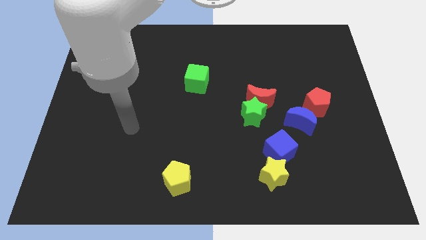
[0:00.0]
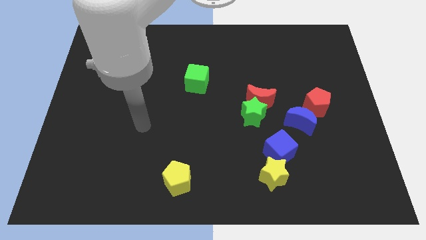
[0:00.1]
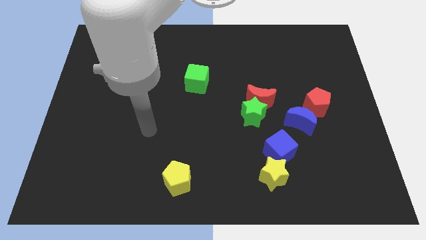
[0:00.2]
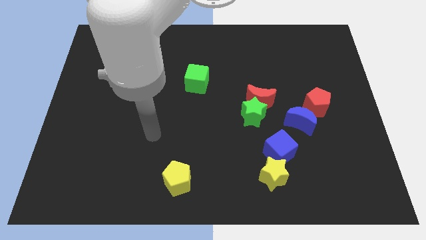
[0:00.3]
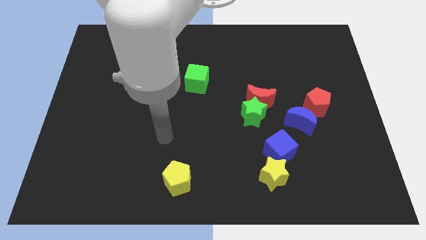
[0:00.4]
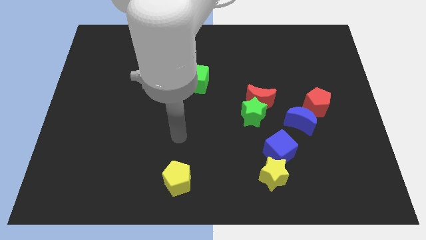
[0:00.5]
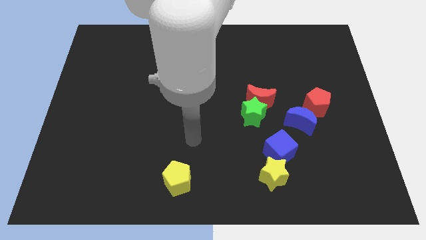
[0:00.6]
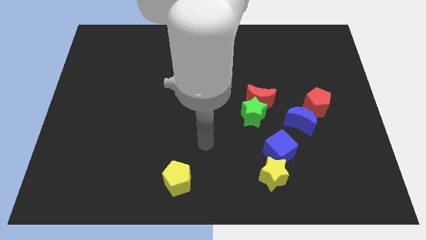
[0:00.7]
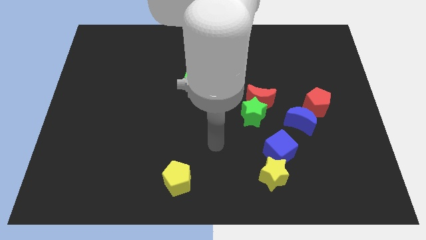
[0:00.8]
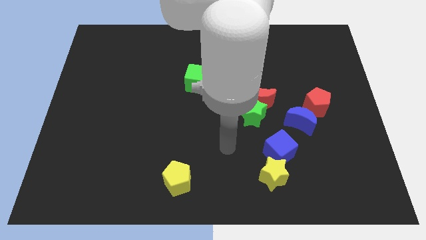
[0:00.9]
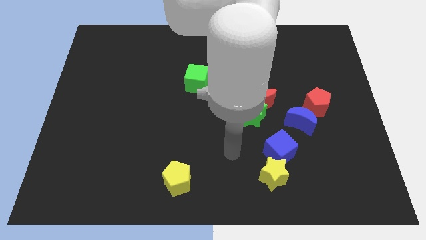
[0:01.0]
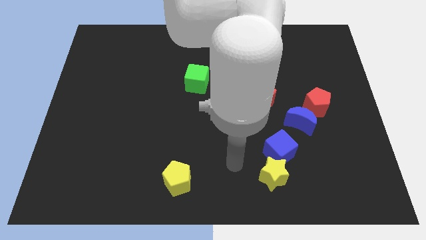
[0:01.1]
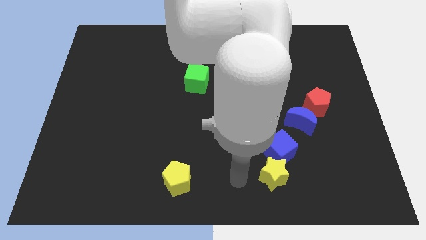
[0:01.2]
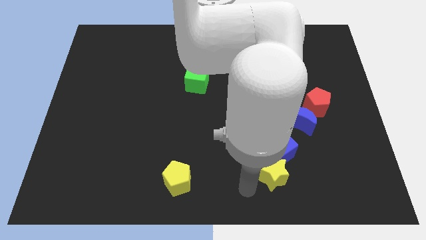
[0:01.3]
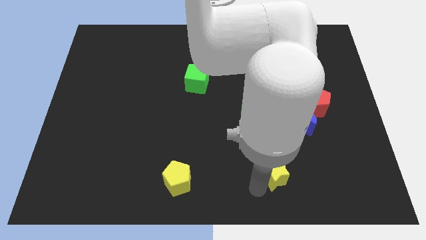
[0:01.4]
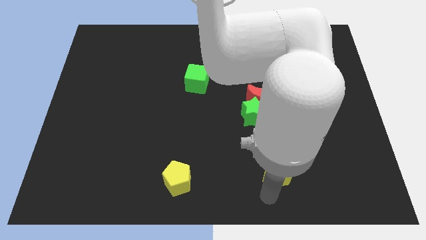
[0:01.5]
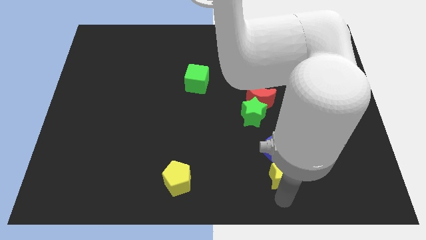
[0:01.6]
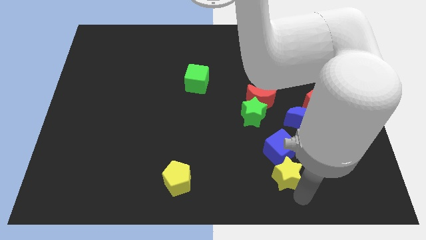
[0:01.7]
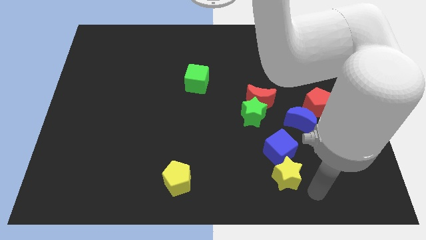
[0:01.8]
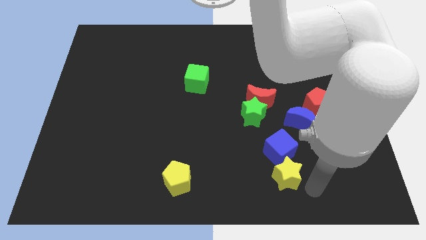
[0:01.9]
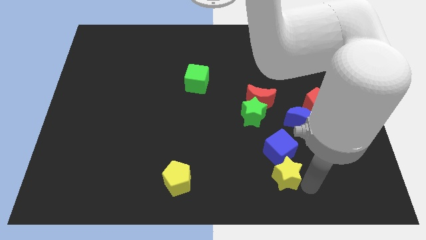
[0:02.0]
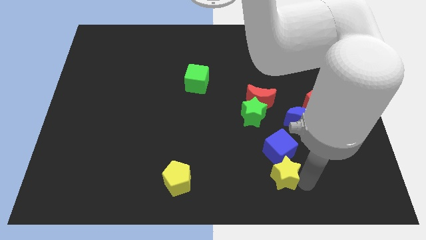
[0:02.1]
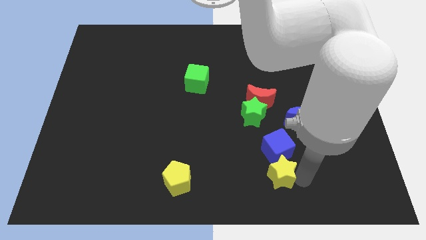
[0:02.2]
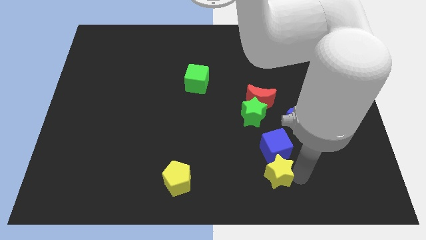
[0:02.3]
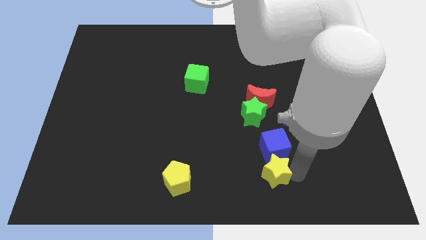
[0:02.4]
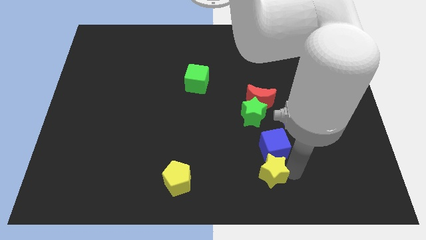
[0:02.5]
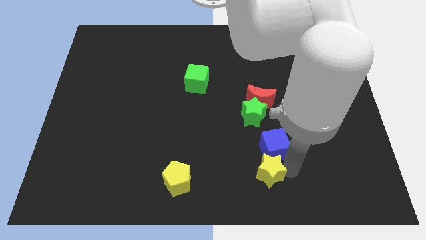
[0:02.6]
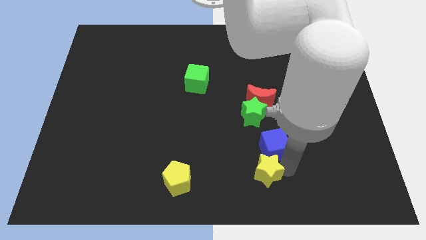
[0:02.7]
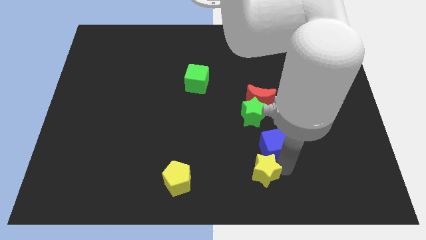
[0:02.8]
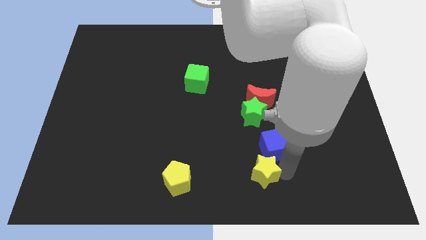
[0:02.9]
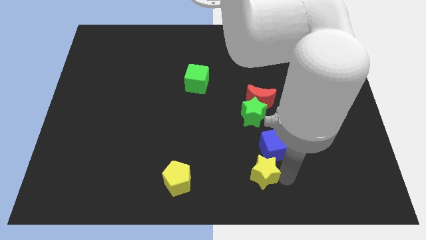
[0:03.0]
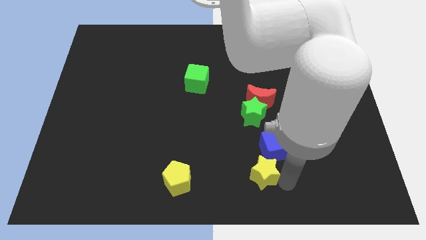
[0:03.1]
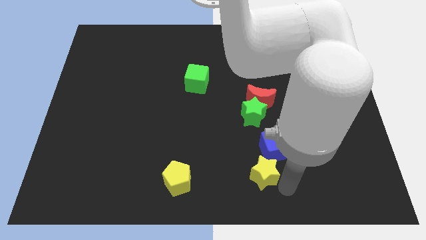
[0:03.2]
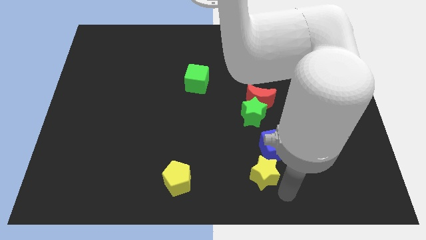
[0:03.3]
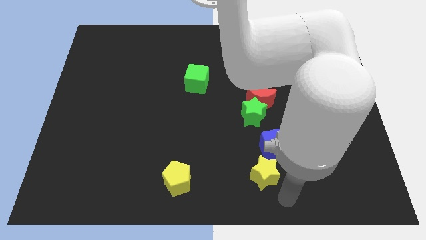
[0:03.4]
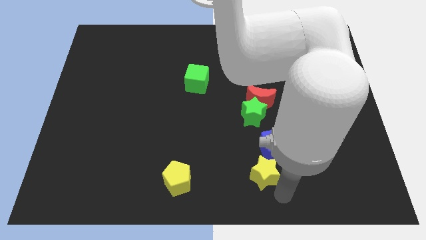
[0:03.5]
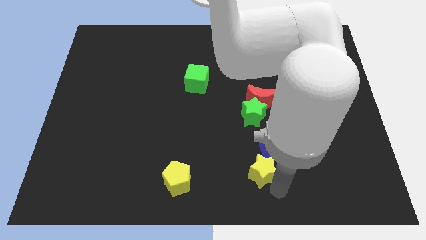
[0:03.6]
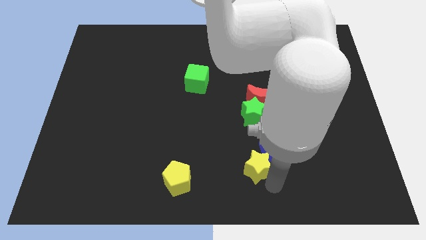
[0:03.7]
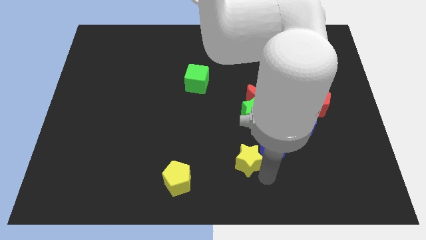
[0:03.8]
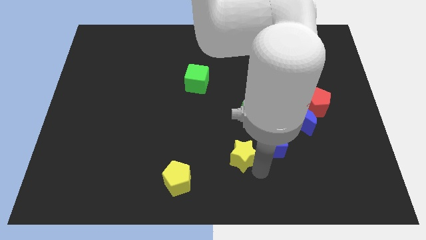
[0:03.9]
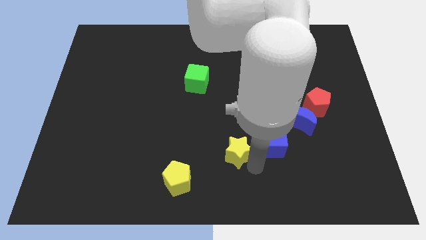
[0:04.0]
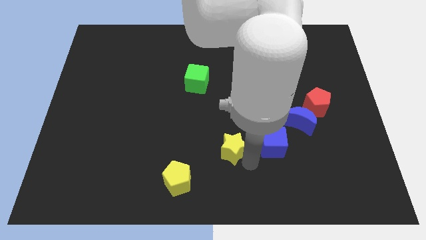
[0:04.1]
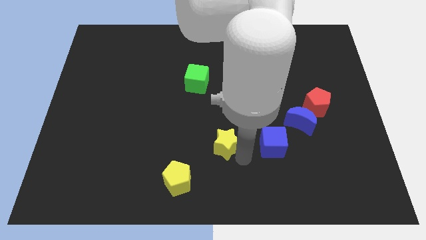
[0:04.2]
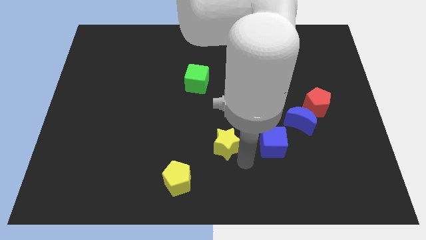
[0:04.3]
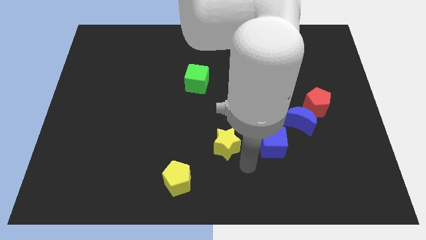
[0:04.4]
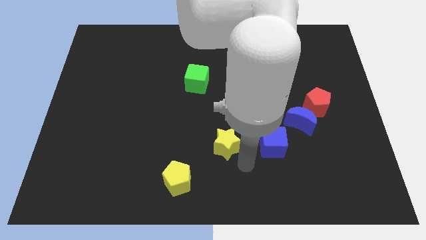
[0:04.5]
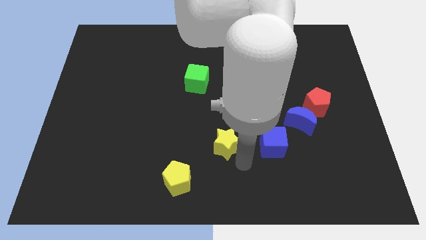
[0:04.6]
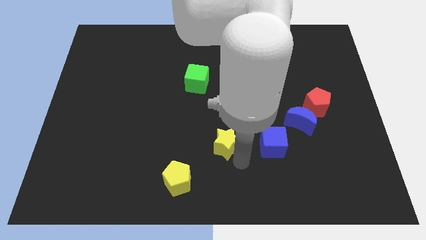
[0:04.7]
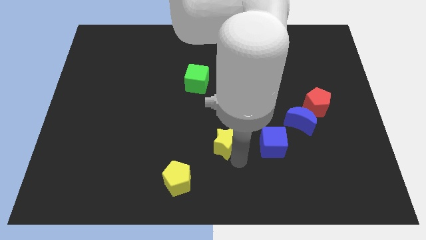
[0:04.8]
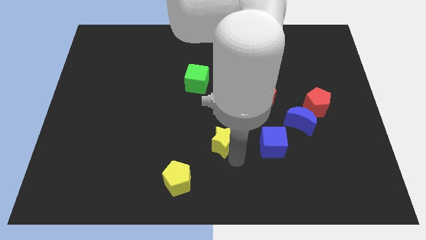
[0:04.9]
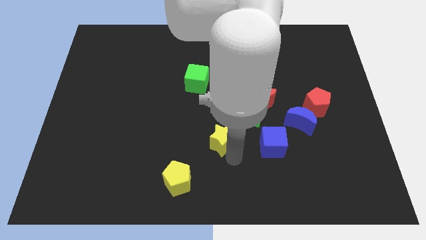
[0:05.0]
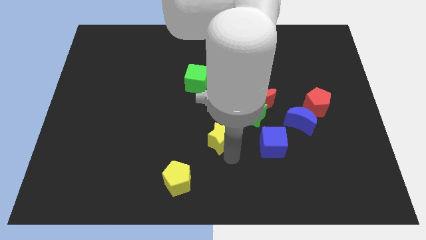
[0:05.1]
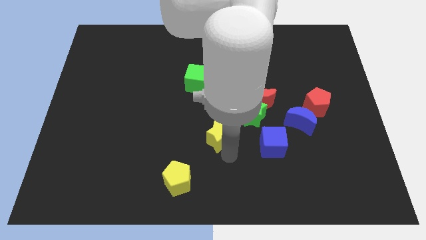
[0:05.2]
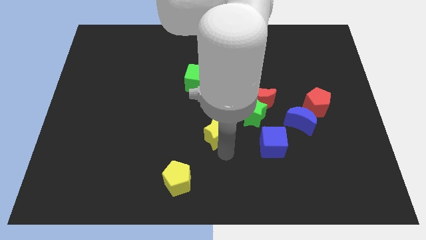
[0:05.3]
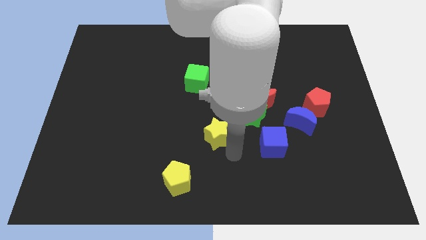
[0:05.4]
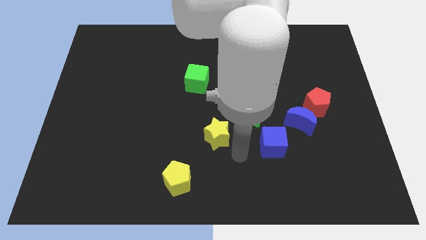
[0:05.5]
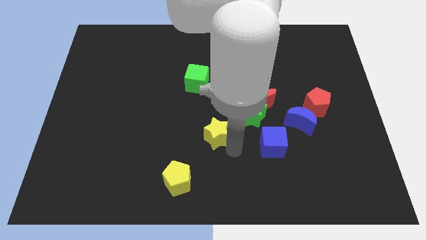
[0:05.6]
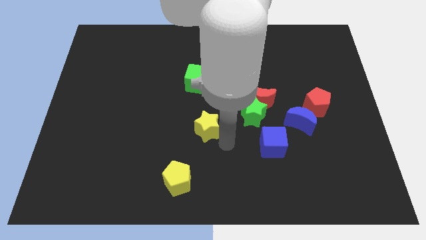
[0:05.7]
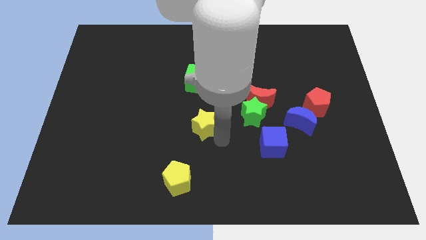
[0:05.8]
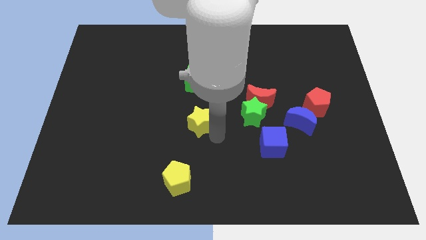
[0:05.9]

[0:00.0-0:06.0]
move the yellow star up and then left

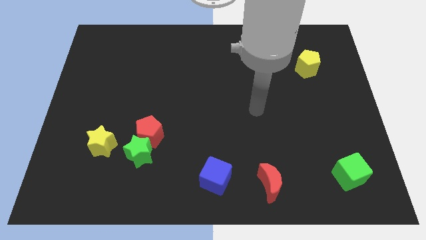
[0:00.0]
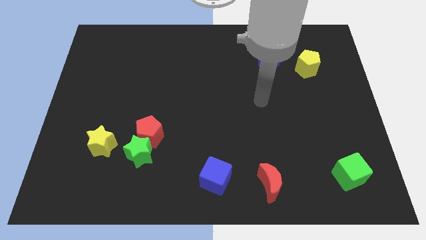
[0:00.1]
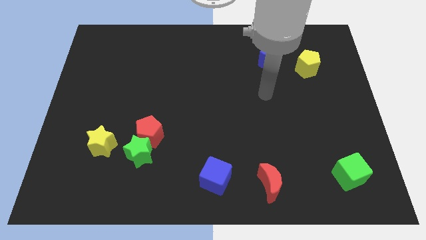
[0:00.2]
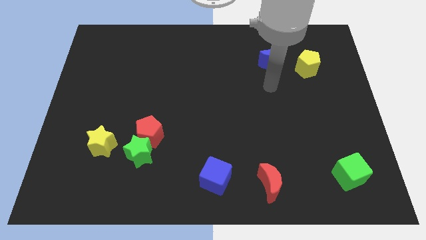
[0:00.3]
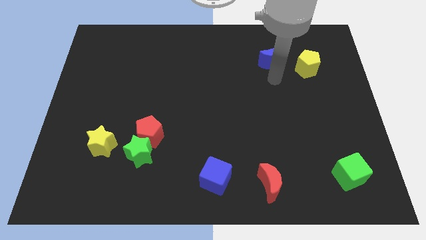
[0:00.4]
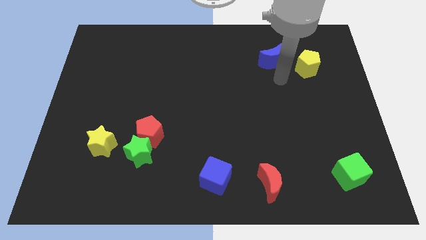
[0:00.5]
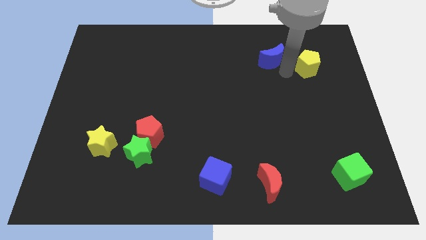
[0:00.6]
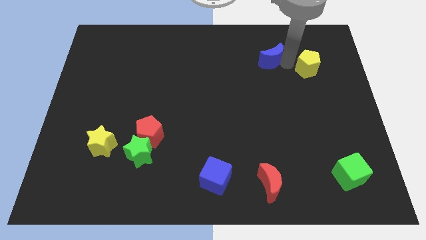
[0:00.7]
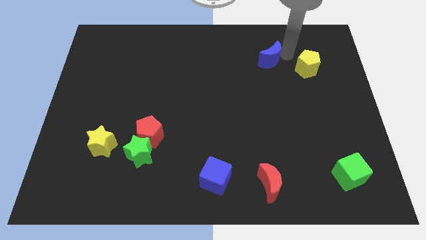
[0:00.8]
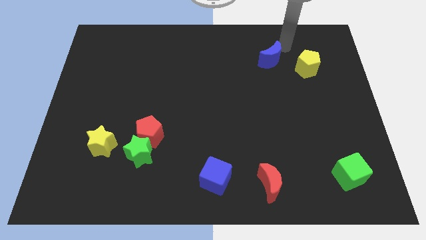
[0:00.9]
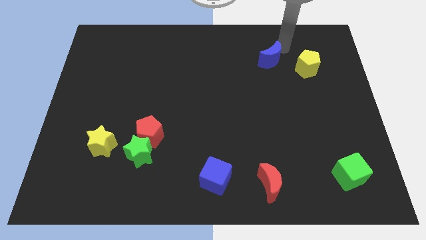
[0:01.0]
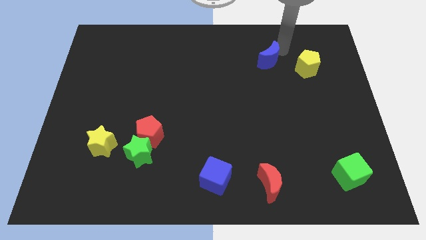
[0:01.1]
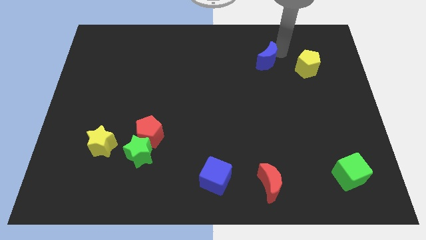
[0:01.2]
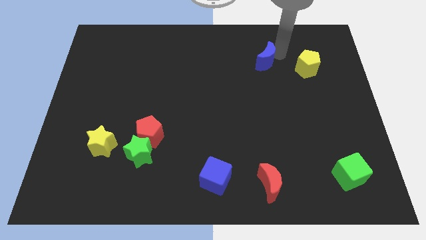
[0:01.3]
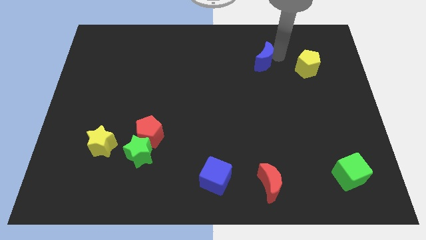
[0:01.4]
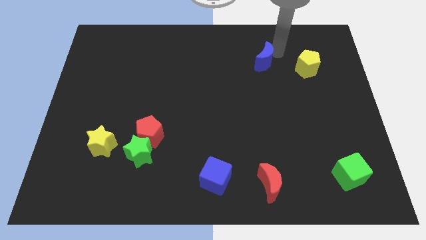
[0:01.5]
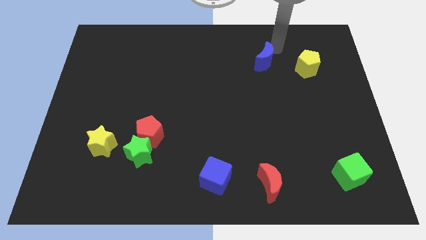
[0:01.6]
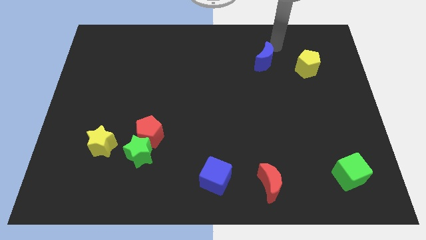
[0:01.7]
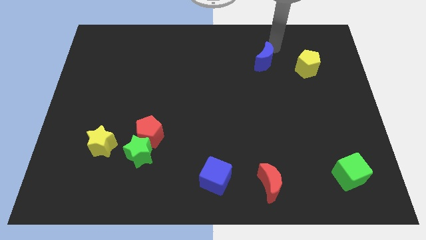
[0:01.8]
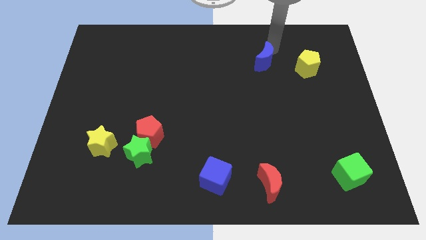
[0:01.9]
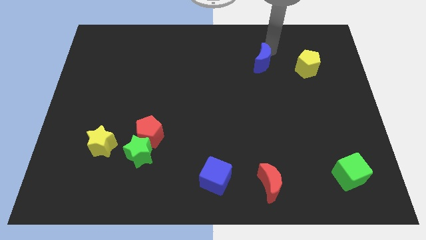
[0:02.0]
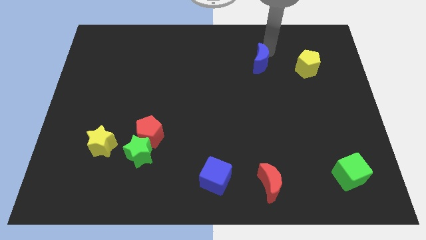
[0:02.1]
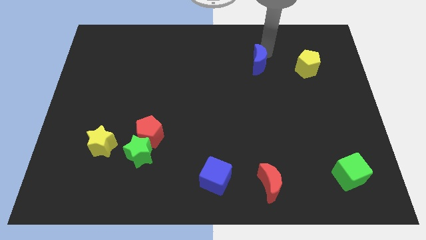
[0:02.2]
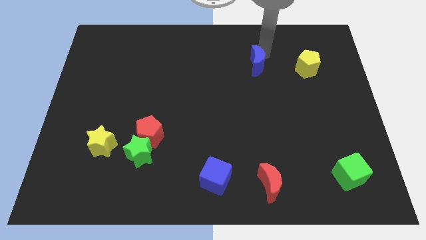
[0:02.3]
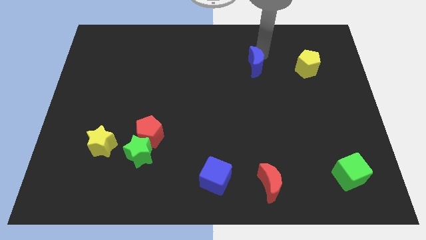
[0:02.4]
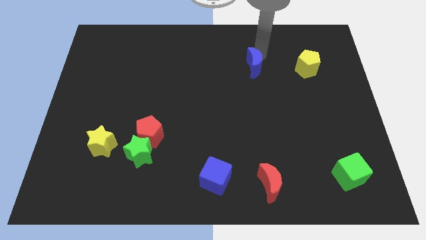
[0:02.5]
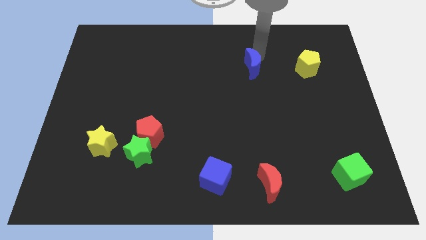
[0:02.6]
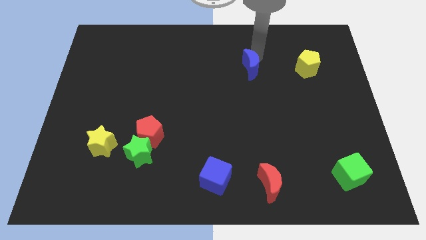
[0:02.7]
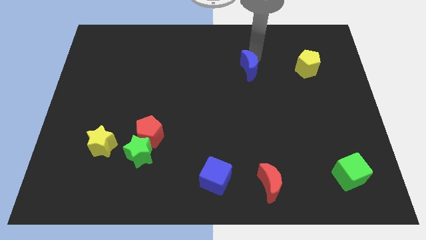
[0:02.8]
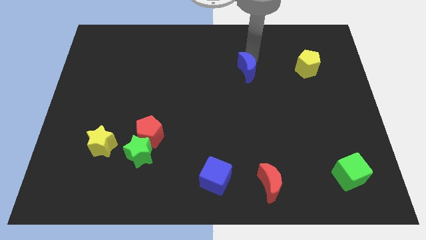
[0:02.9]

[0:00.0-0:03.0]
move the blue moon a little diagonally down and to the left
